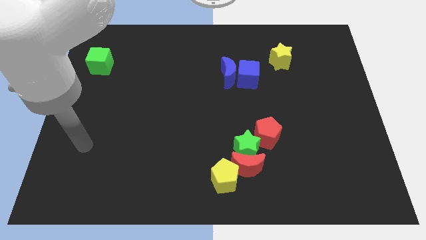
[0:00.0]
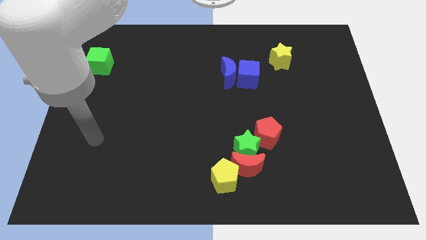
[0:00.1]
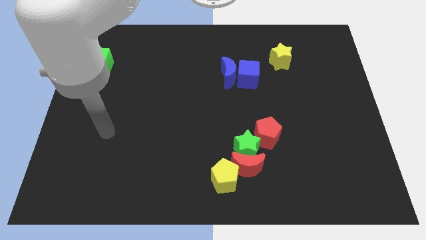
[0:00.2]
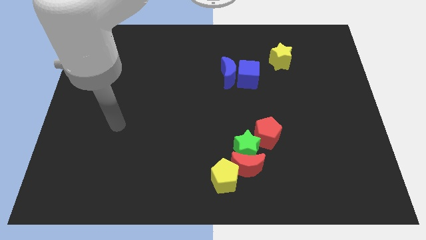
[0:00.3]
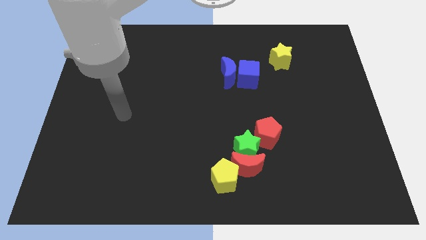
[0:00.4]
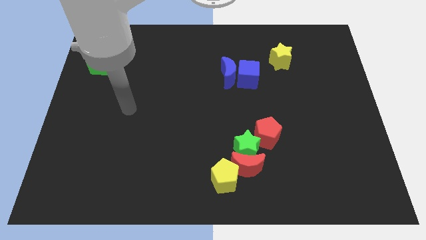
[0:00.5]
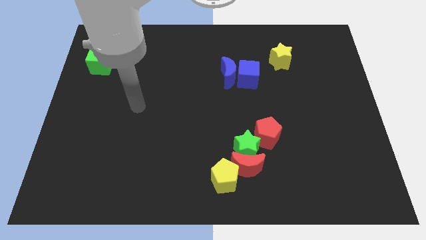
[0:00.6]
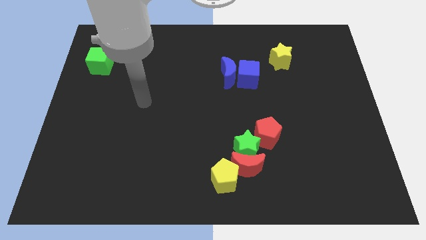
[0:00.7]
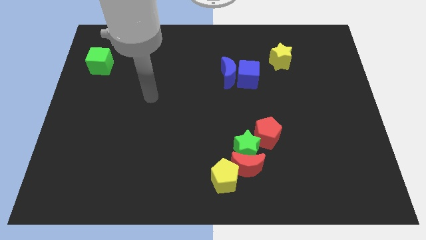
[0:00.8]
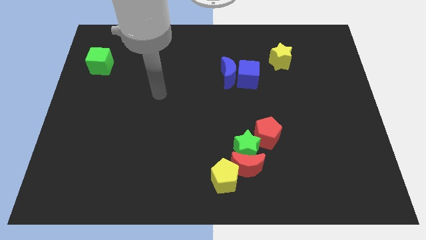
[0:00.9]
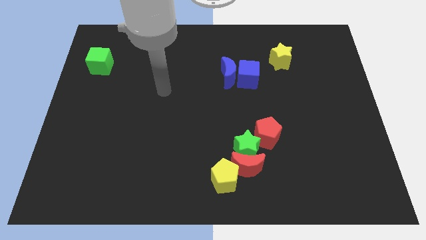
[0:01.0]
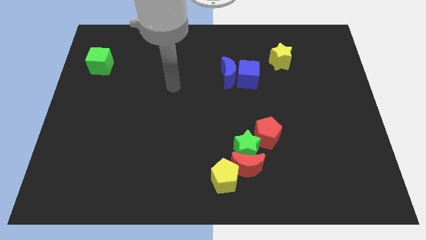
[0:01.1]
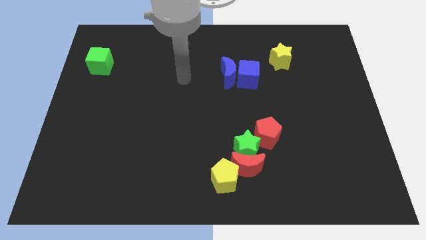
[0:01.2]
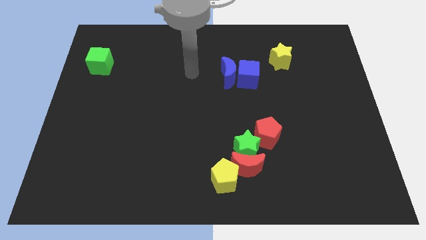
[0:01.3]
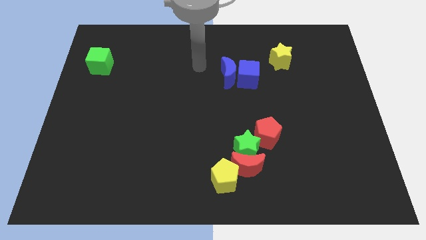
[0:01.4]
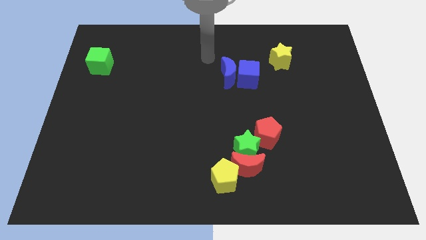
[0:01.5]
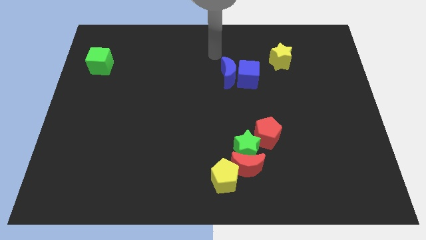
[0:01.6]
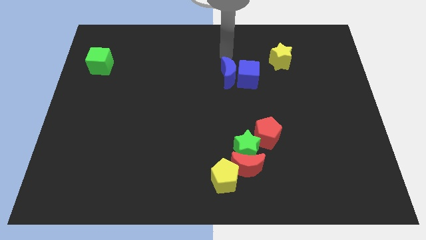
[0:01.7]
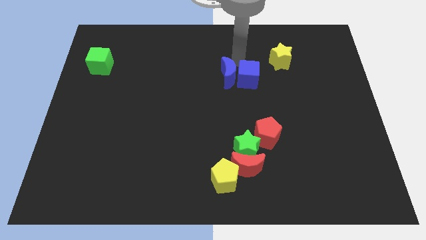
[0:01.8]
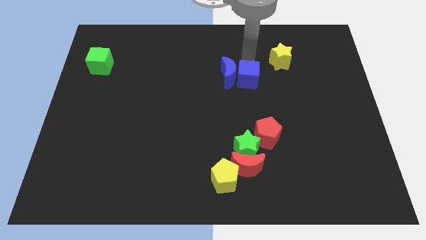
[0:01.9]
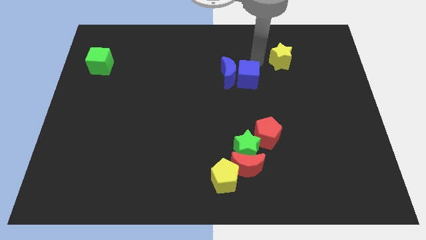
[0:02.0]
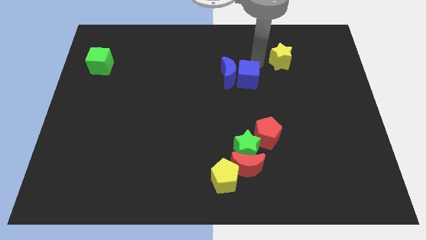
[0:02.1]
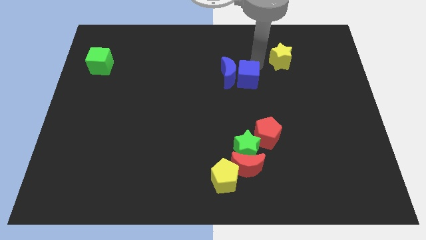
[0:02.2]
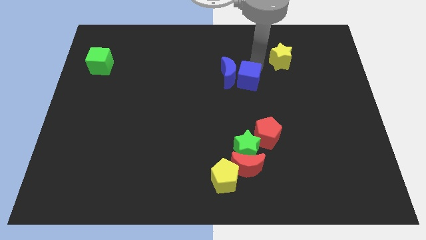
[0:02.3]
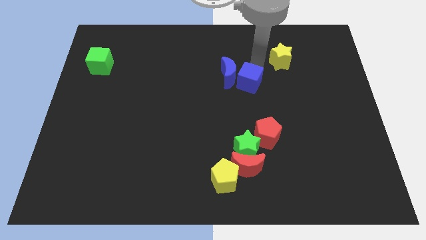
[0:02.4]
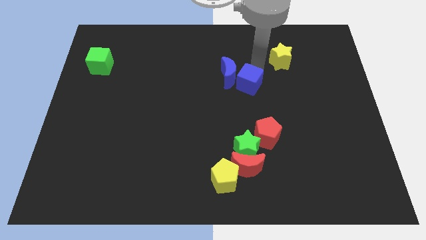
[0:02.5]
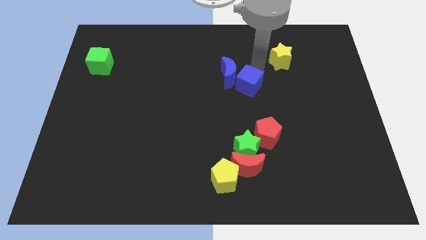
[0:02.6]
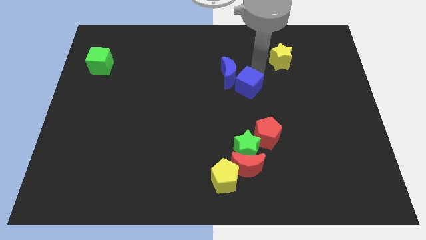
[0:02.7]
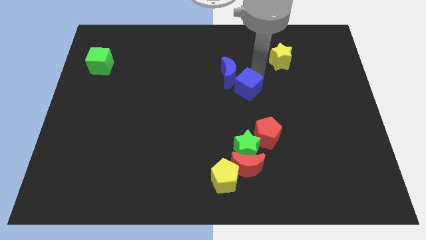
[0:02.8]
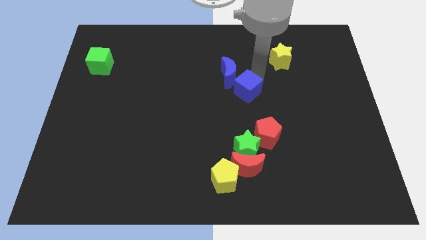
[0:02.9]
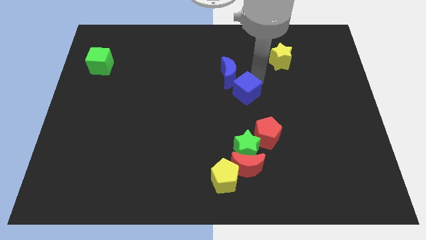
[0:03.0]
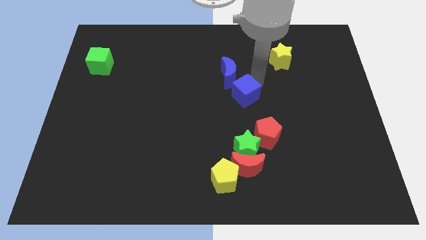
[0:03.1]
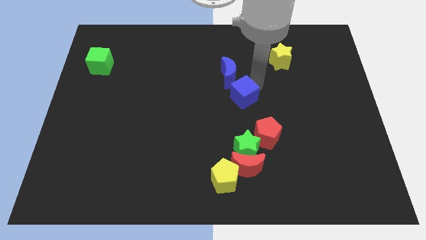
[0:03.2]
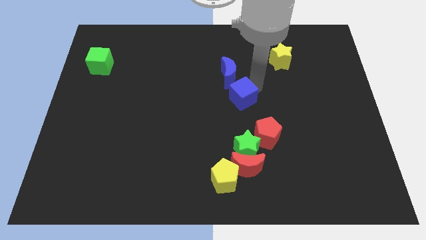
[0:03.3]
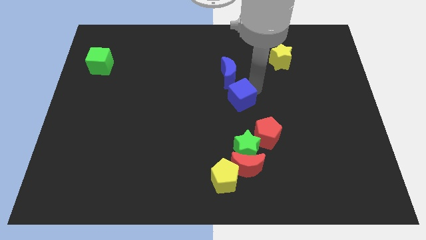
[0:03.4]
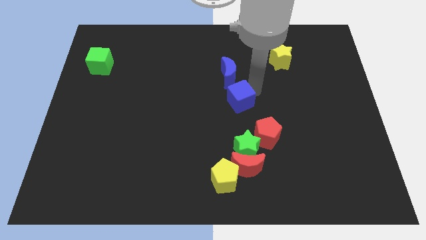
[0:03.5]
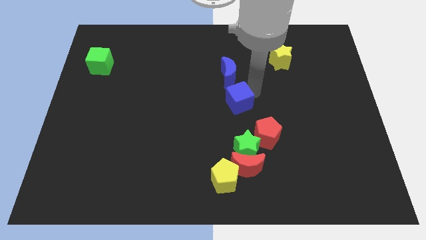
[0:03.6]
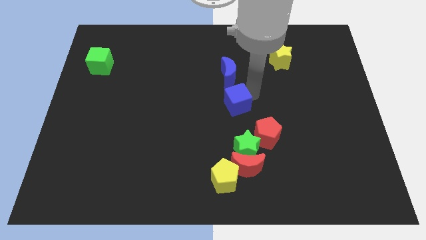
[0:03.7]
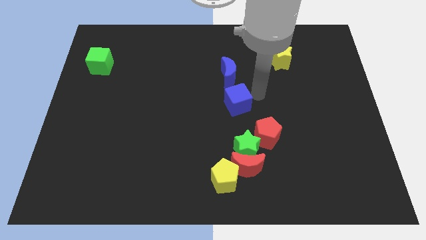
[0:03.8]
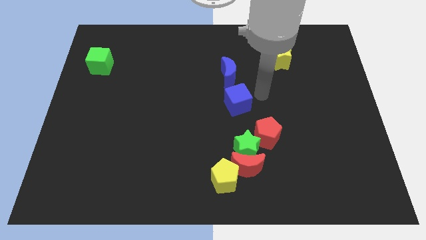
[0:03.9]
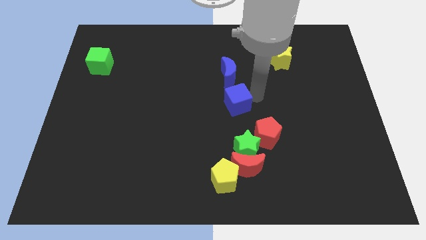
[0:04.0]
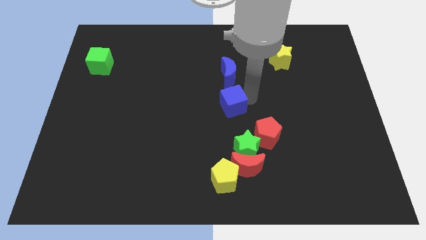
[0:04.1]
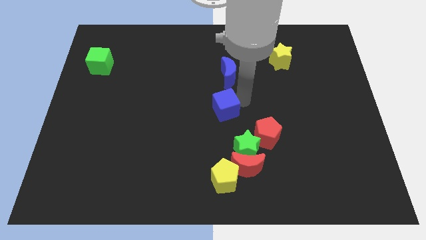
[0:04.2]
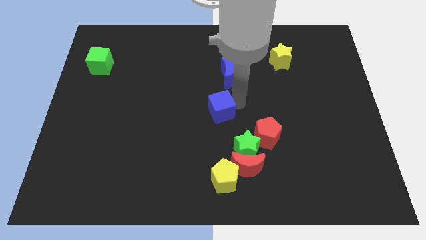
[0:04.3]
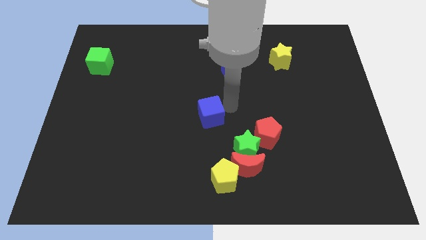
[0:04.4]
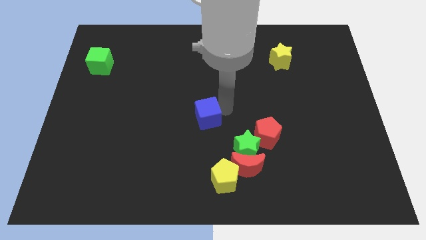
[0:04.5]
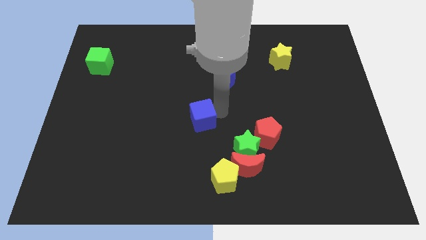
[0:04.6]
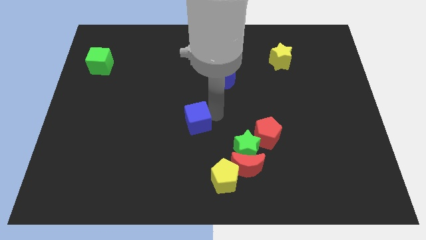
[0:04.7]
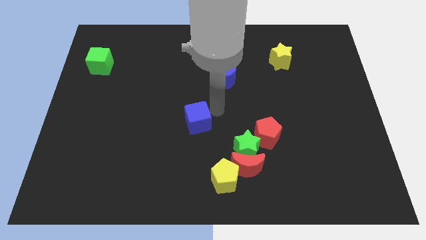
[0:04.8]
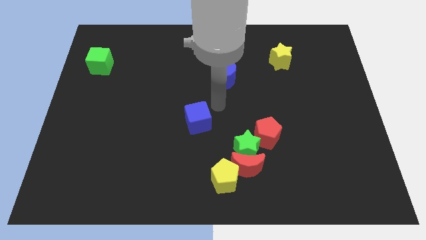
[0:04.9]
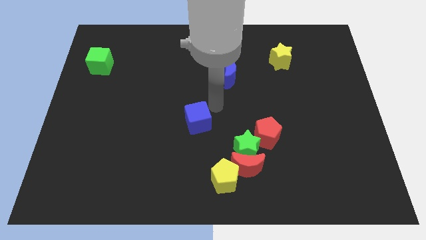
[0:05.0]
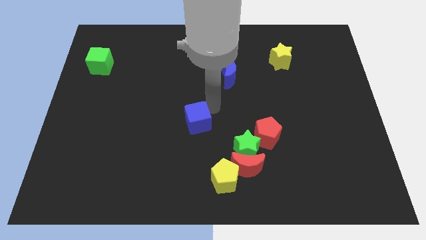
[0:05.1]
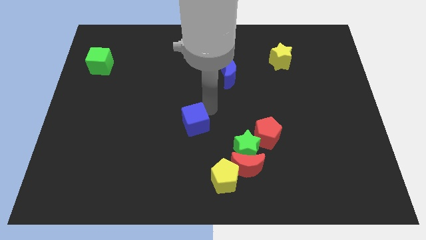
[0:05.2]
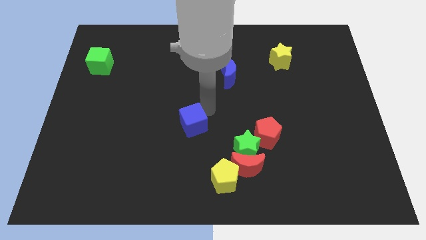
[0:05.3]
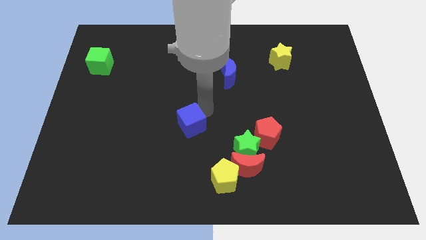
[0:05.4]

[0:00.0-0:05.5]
move the blue cube downwards and left diagonally

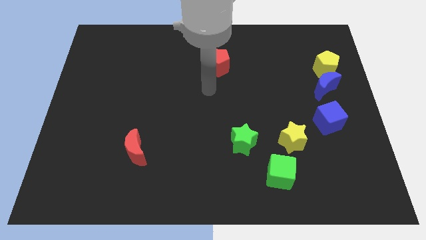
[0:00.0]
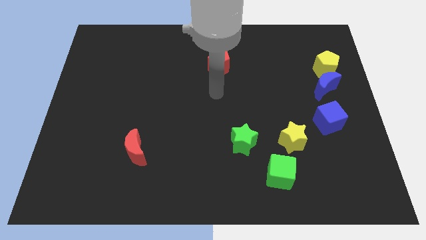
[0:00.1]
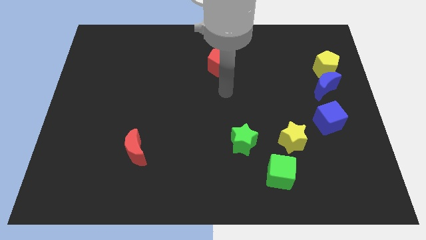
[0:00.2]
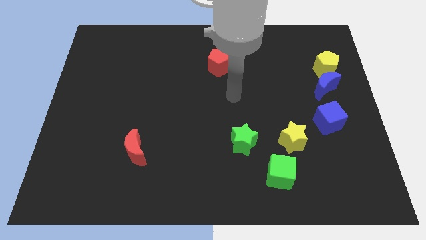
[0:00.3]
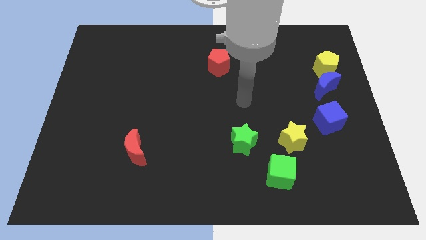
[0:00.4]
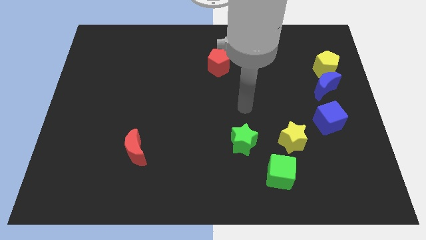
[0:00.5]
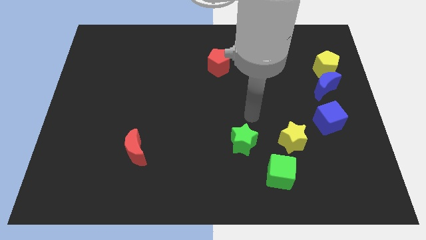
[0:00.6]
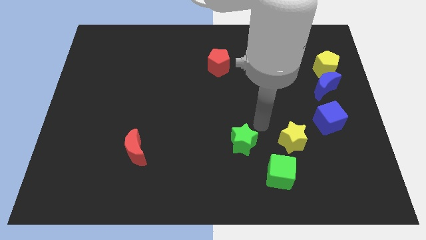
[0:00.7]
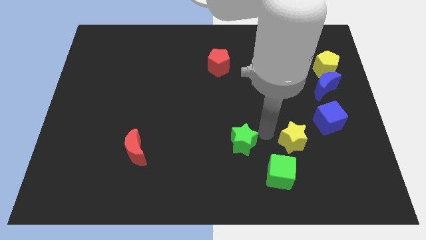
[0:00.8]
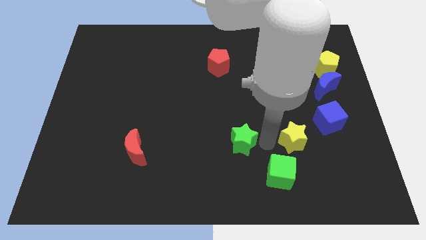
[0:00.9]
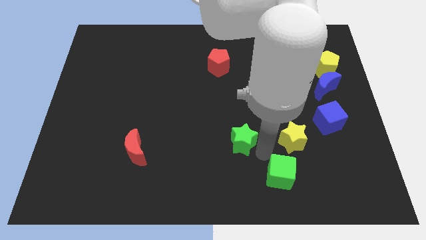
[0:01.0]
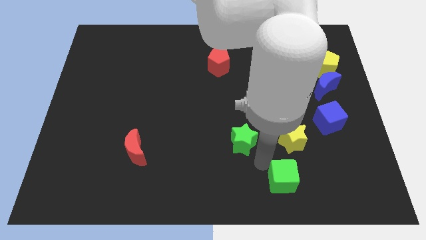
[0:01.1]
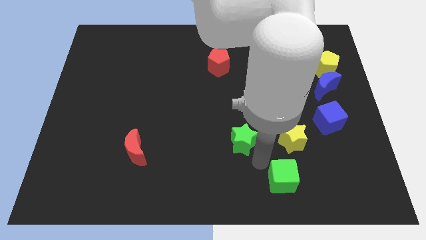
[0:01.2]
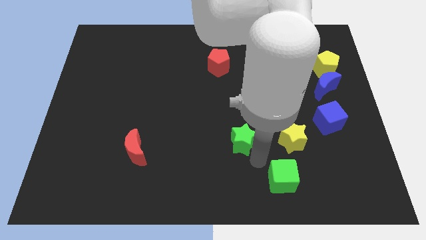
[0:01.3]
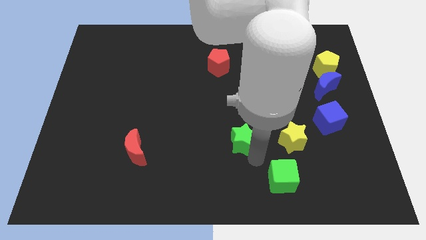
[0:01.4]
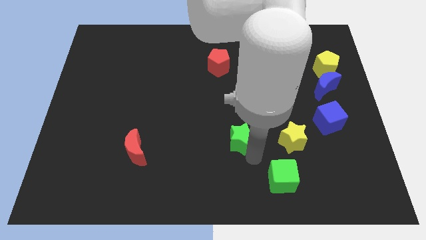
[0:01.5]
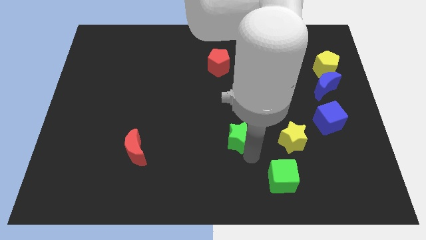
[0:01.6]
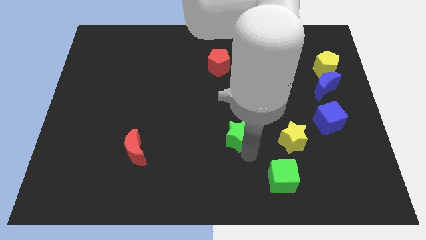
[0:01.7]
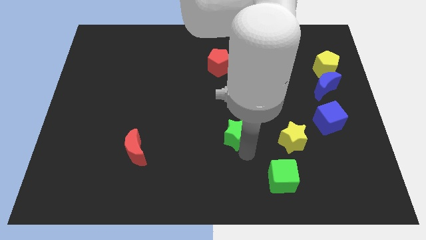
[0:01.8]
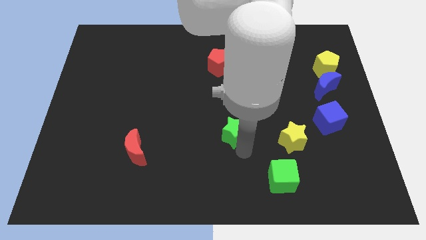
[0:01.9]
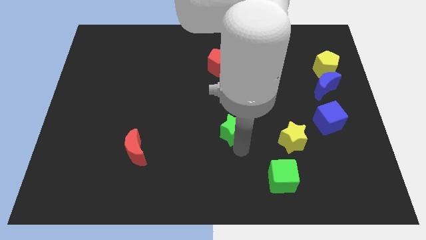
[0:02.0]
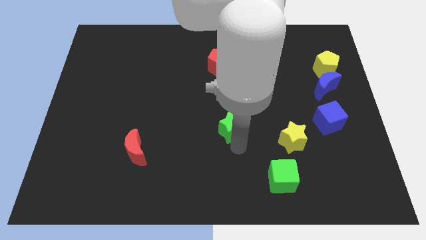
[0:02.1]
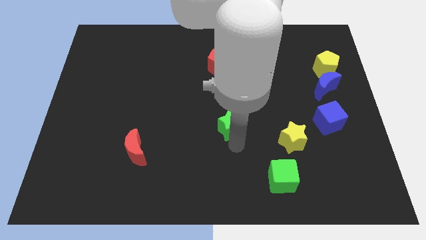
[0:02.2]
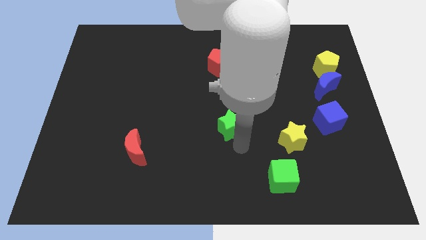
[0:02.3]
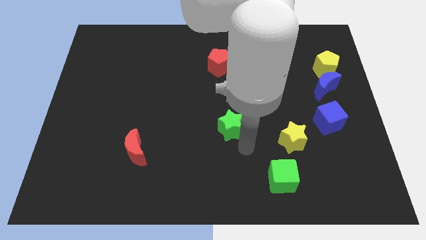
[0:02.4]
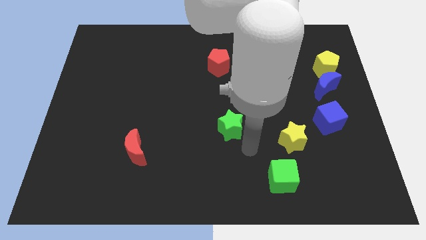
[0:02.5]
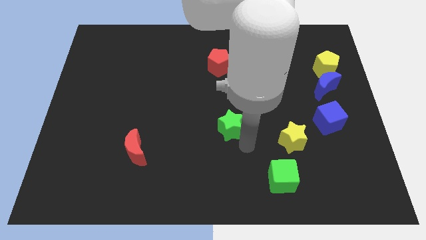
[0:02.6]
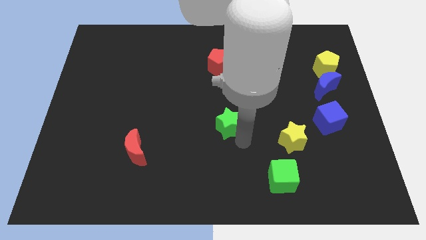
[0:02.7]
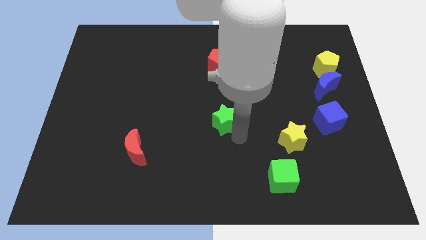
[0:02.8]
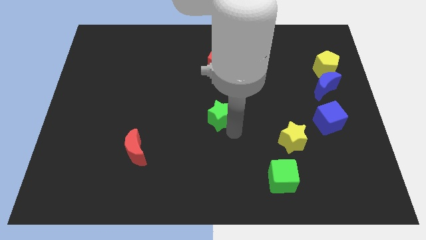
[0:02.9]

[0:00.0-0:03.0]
push the green star upwards and left diagonally a little bit
